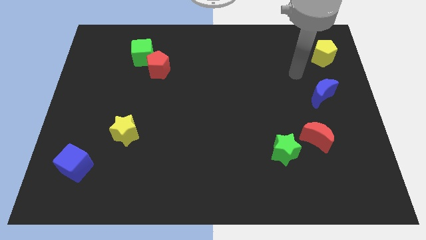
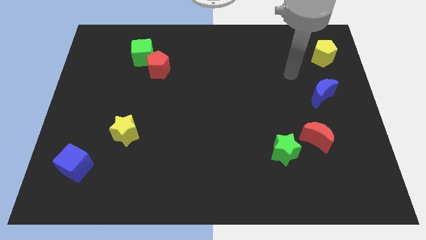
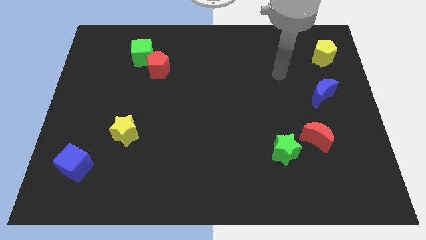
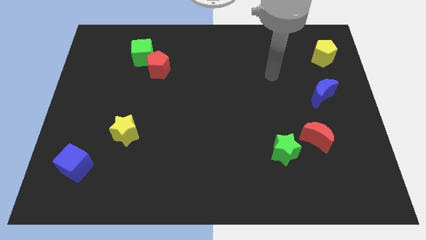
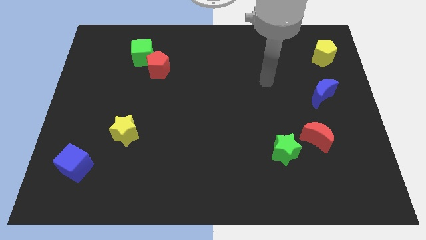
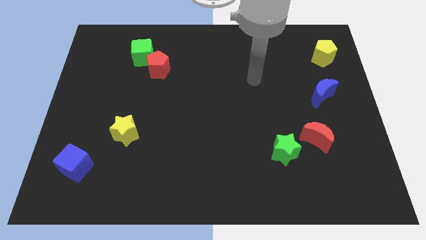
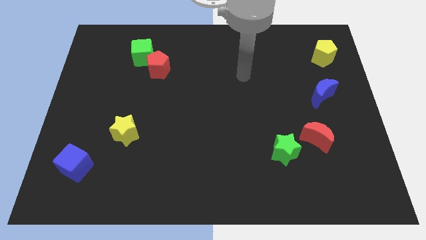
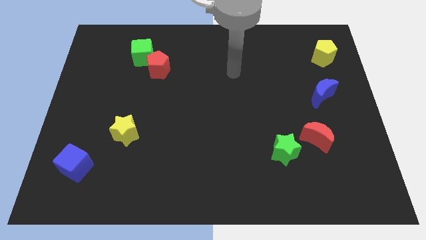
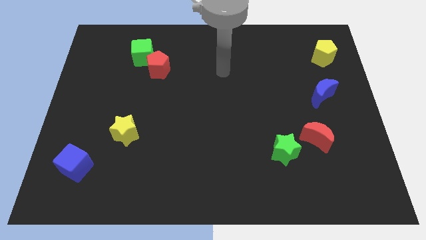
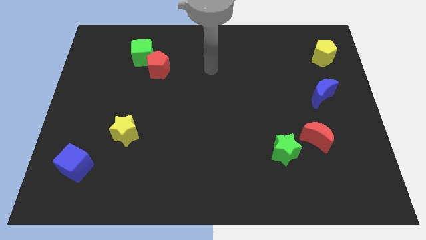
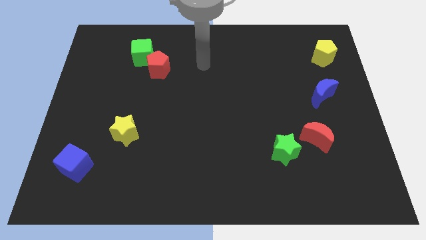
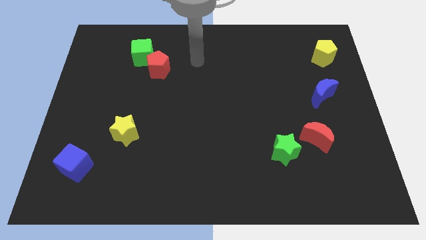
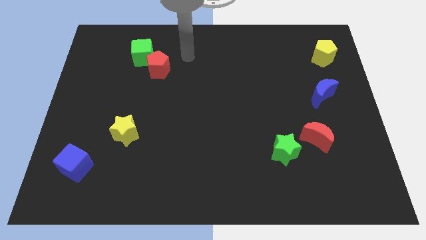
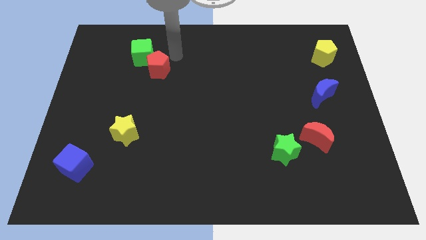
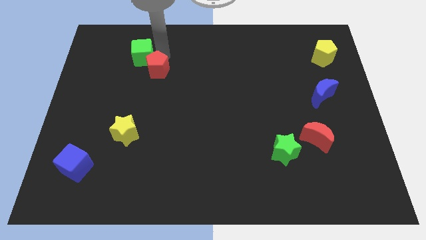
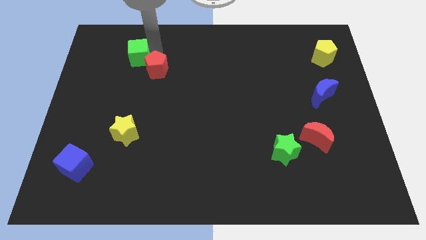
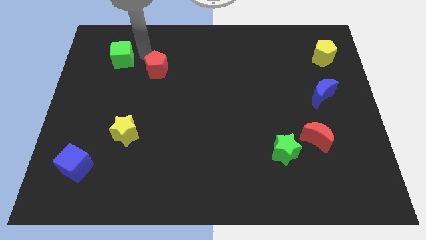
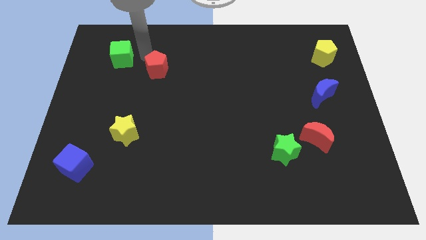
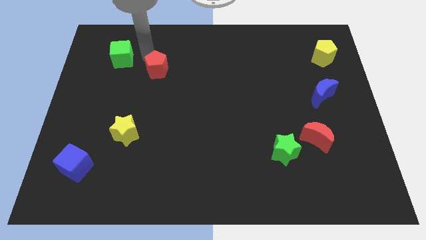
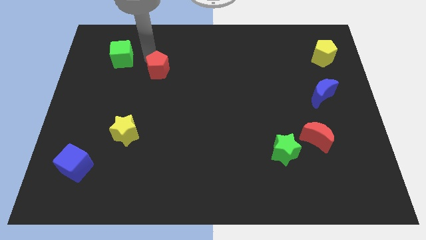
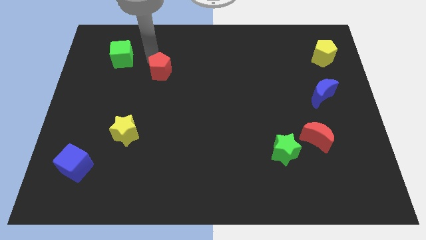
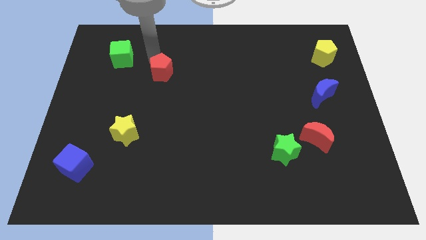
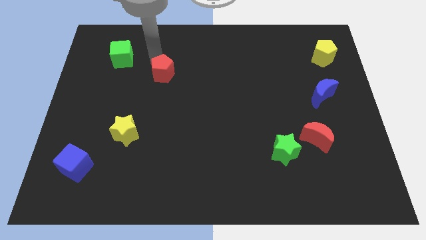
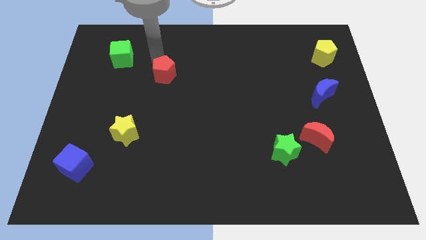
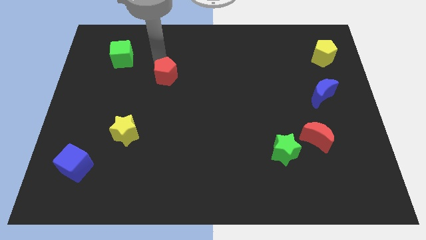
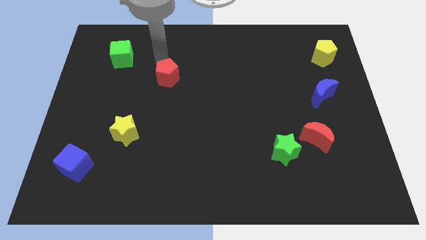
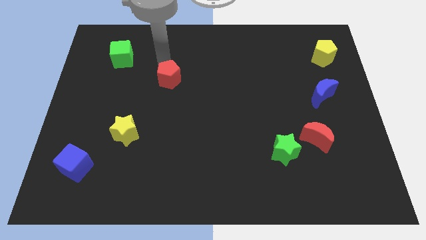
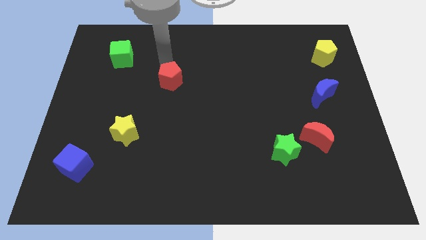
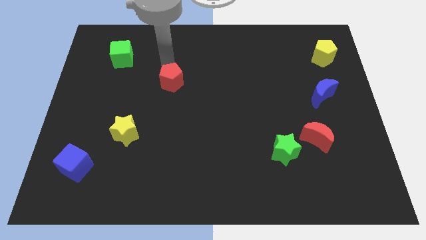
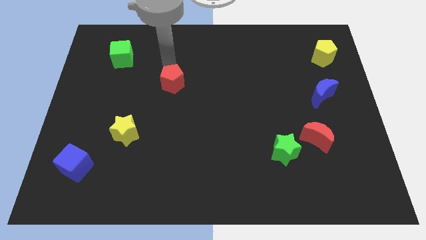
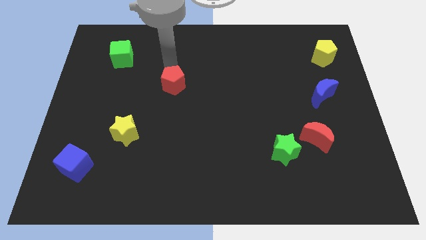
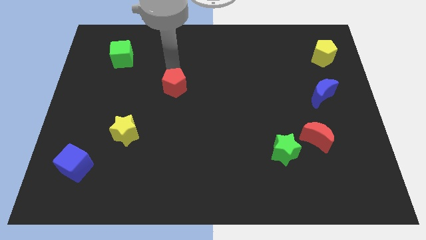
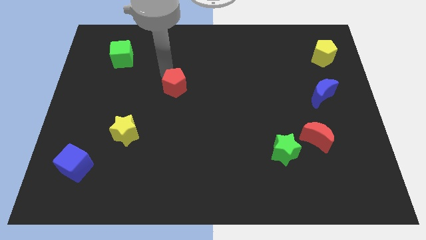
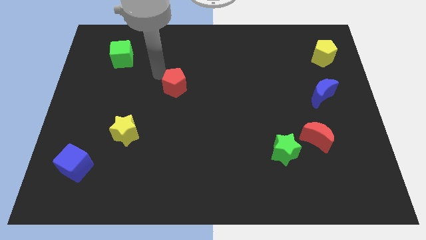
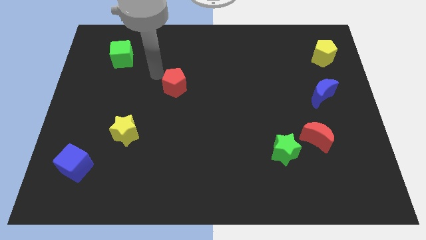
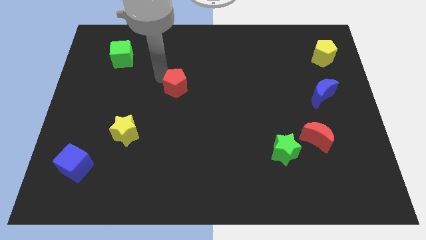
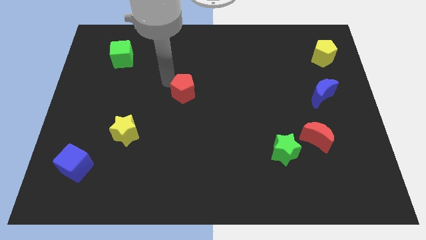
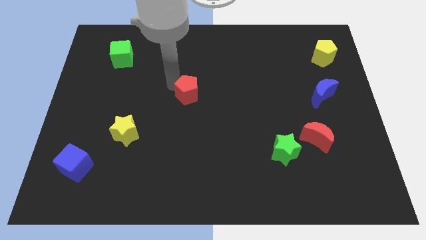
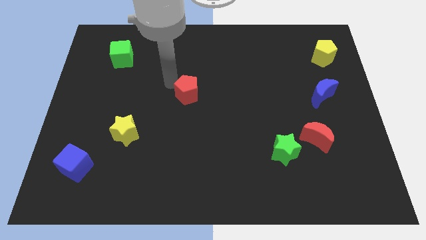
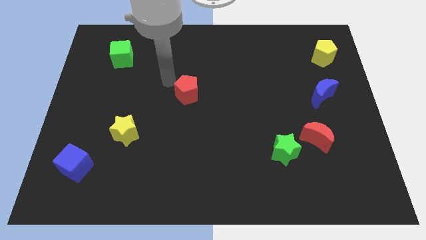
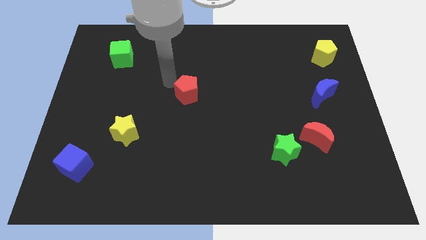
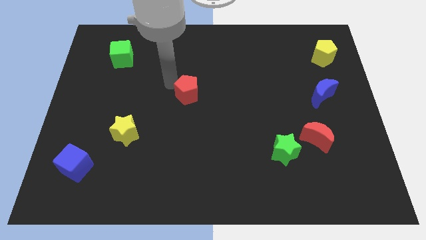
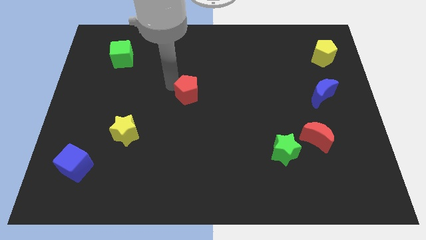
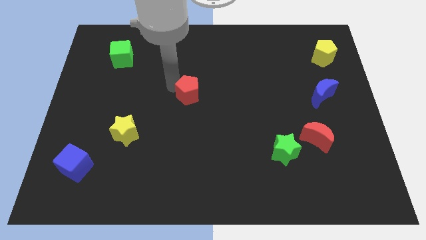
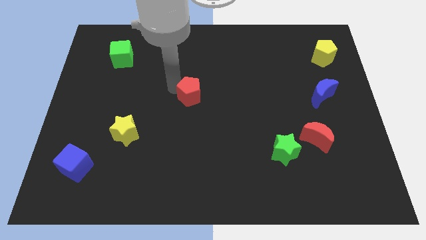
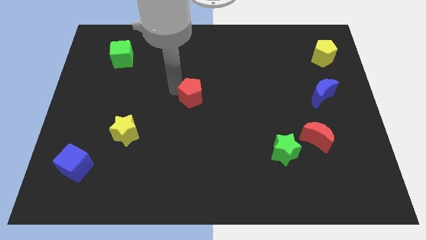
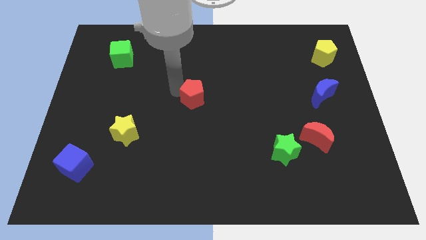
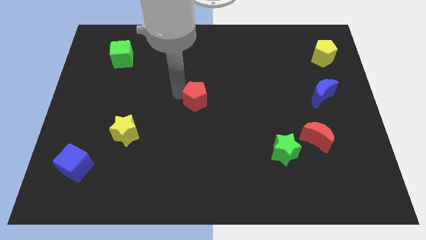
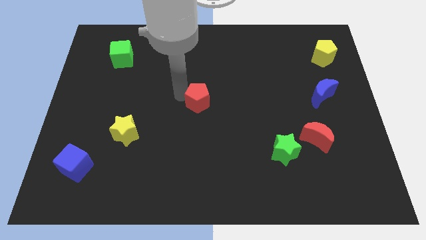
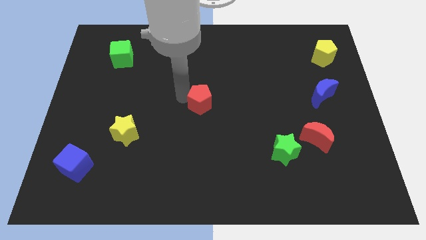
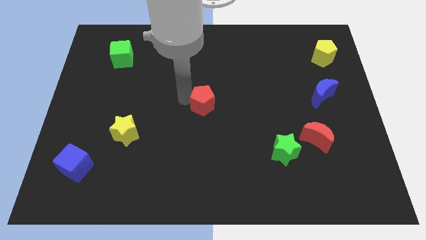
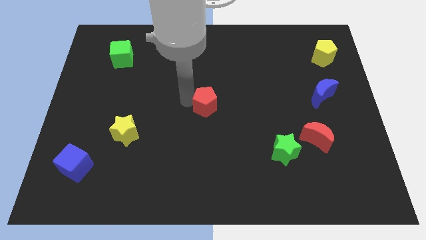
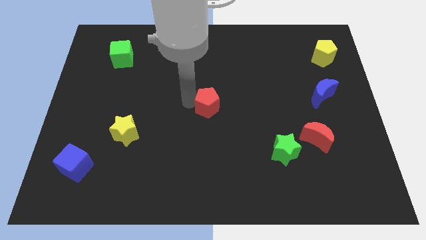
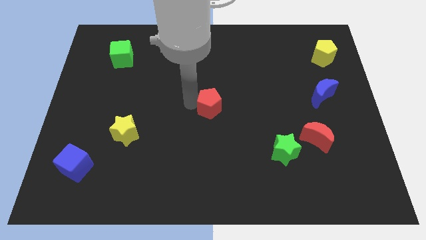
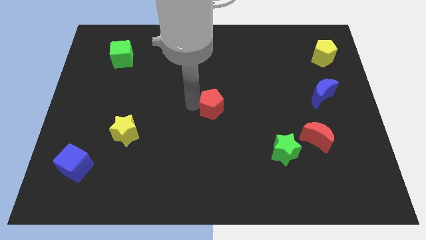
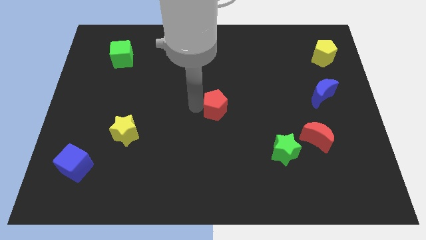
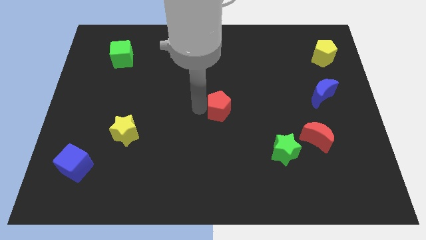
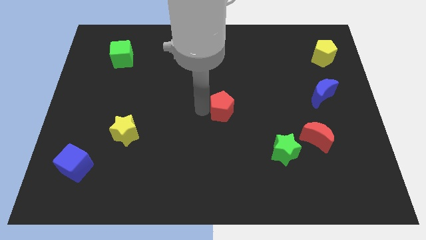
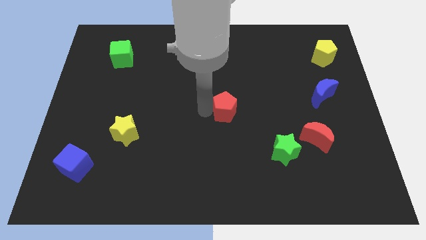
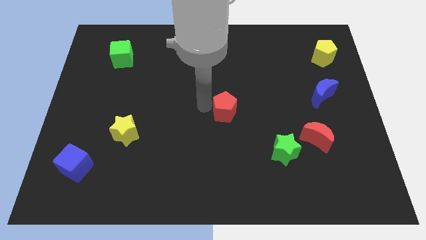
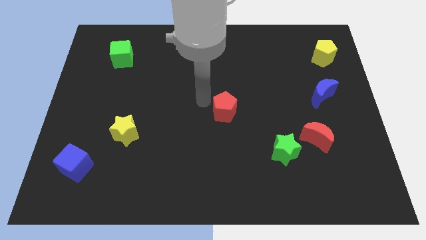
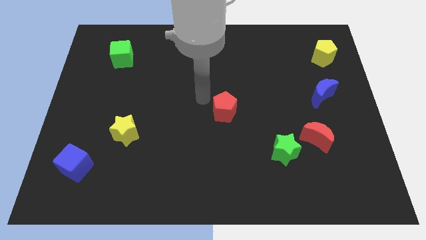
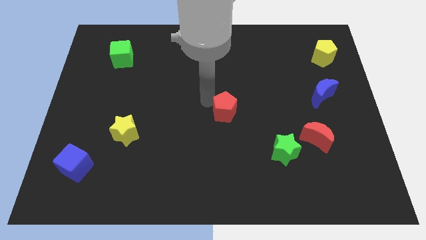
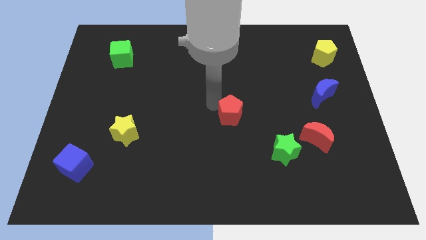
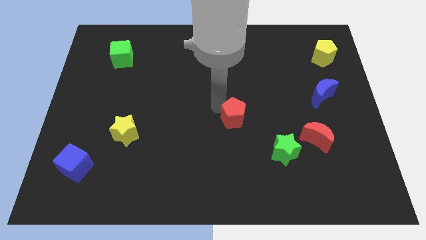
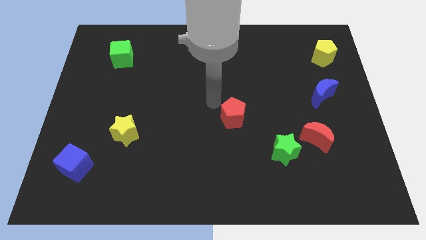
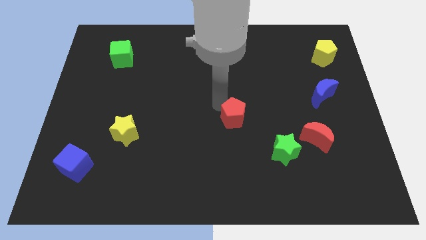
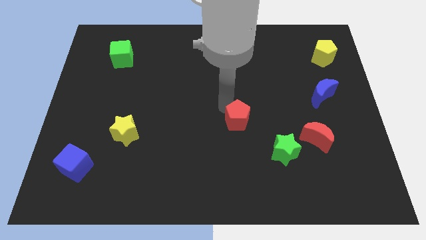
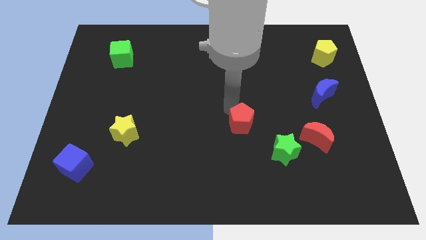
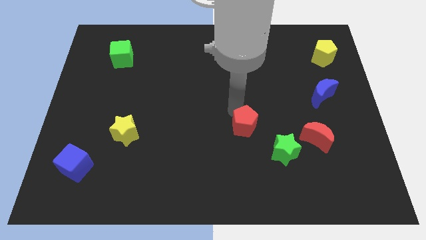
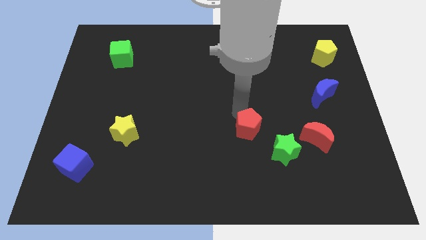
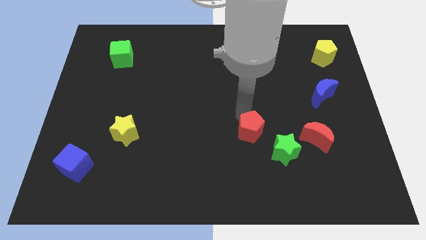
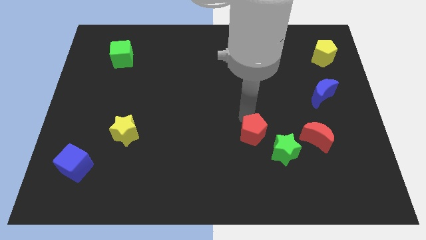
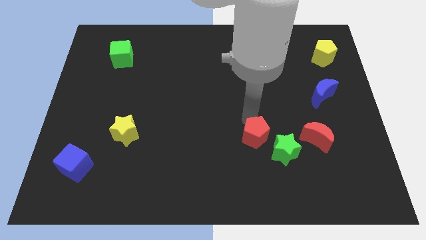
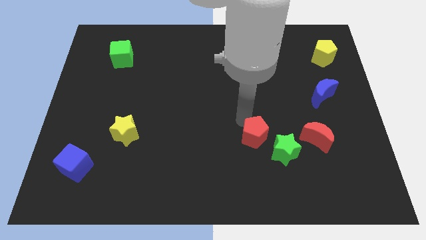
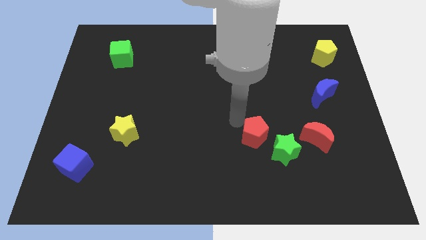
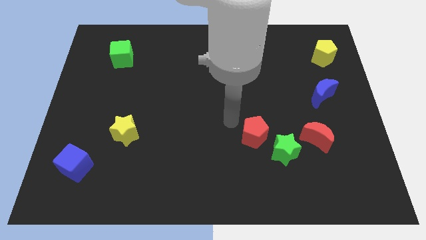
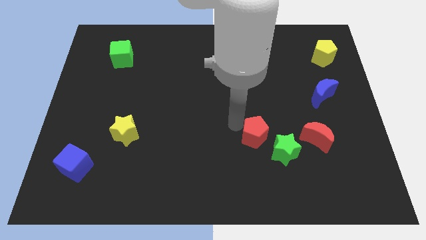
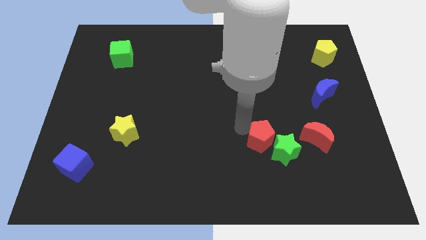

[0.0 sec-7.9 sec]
push the red pentagon to the green star

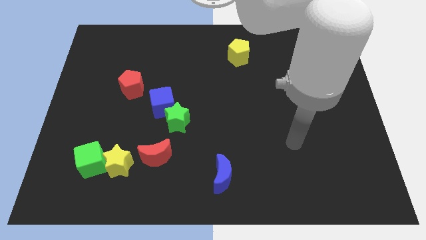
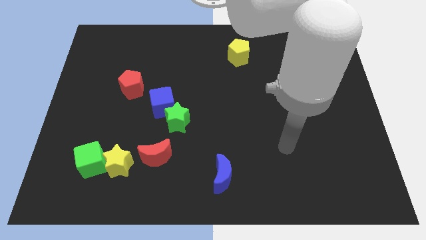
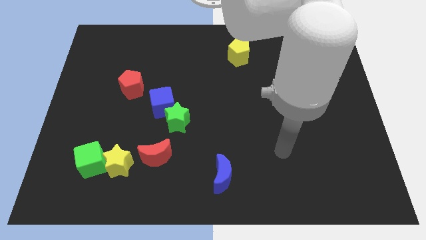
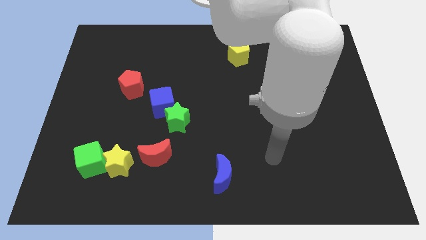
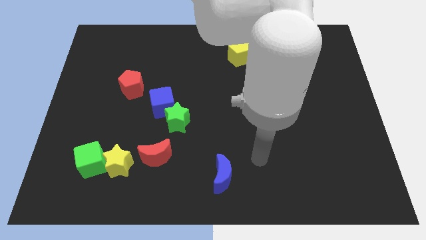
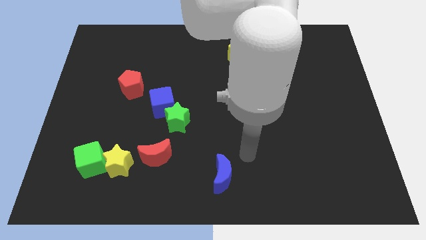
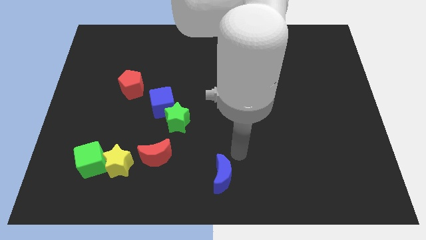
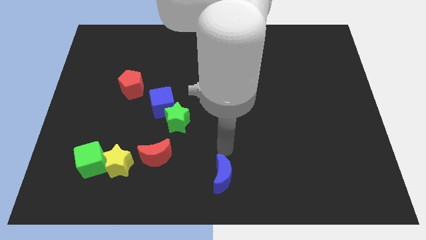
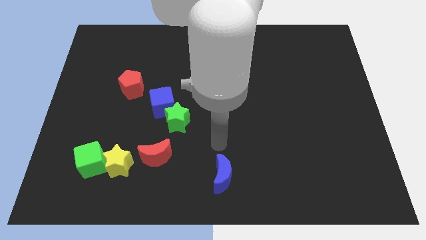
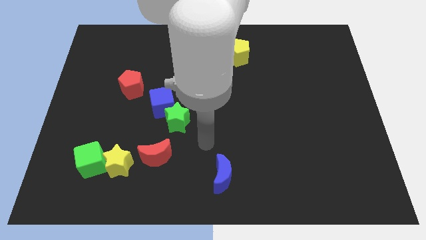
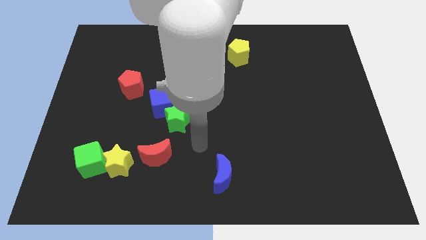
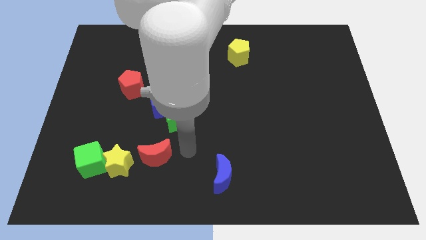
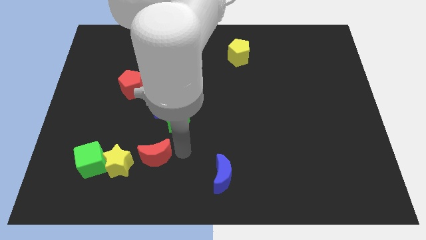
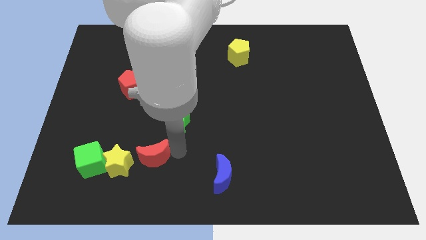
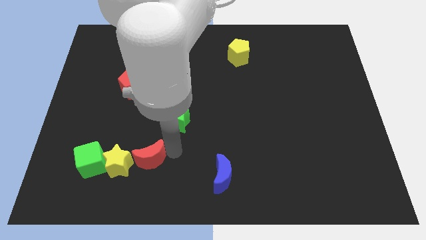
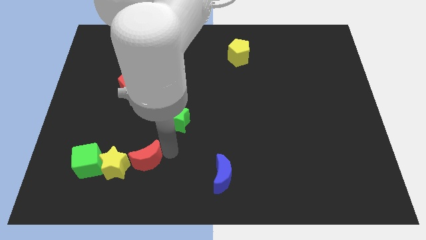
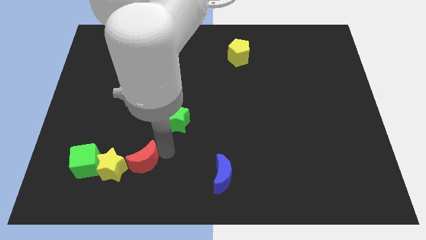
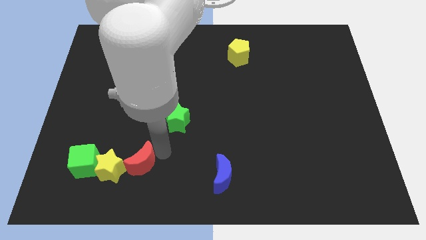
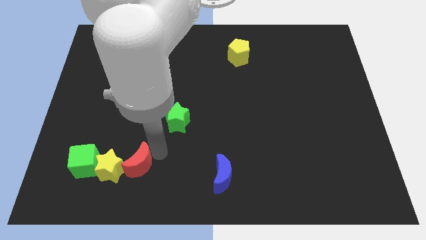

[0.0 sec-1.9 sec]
slide the red moon to the yellow star
